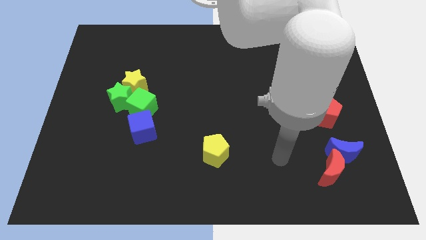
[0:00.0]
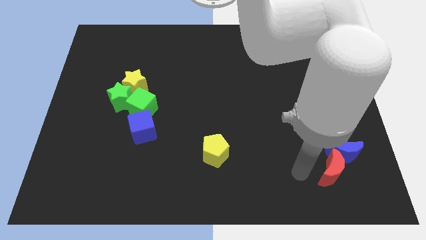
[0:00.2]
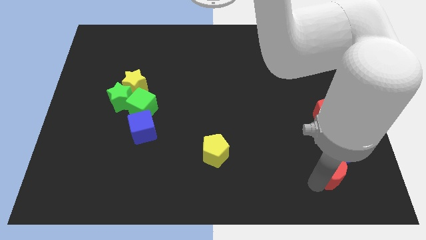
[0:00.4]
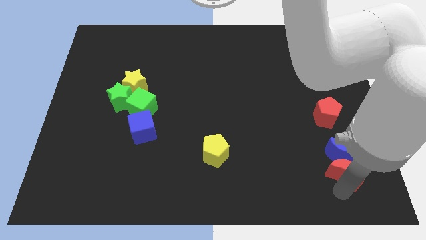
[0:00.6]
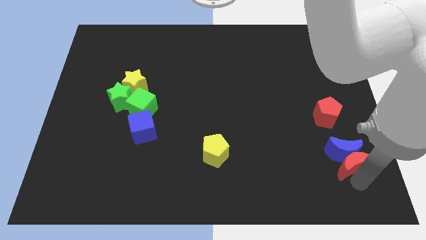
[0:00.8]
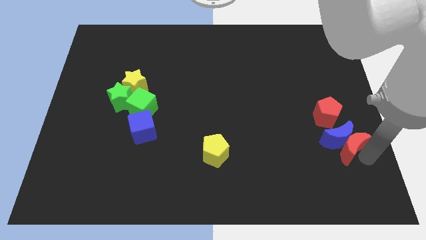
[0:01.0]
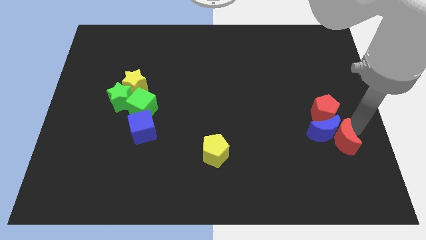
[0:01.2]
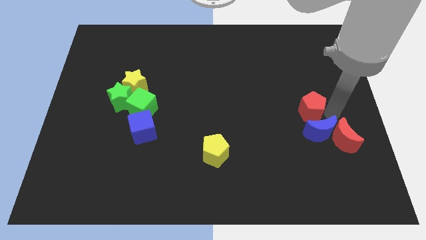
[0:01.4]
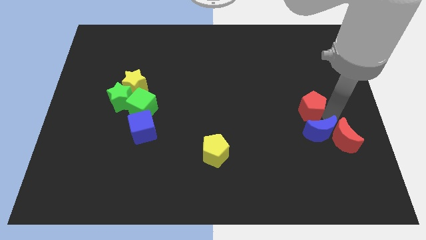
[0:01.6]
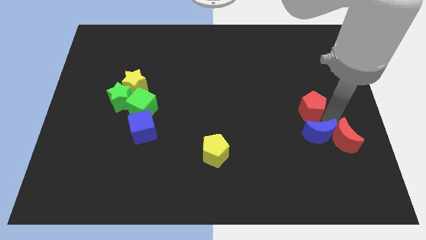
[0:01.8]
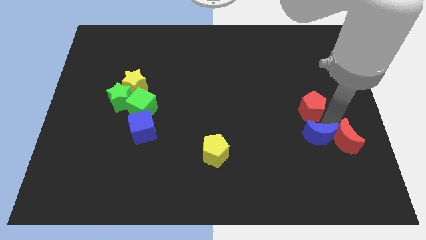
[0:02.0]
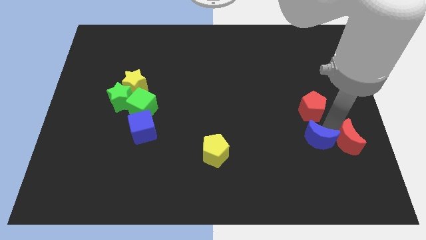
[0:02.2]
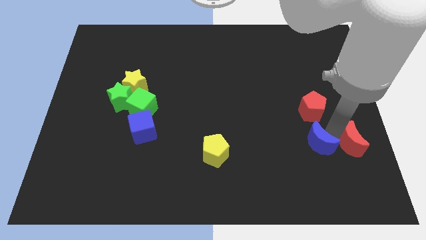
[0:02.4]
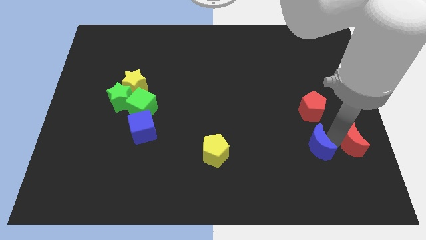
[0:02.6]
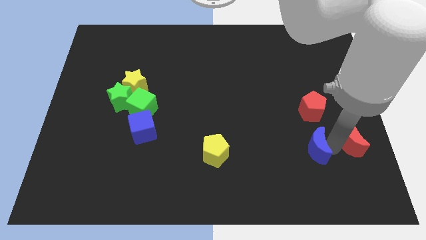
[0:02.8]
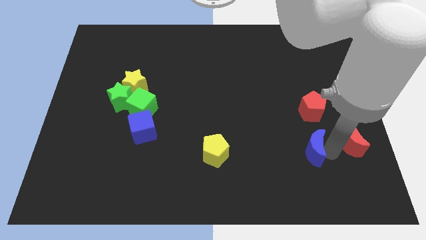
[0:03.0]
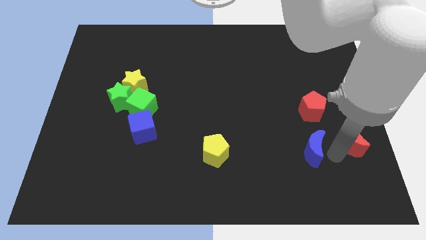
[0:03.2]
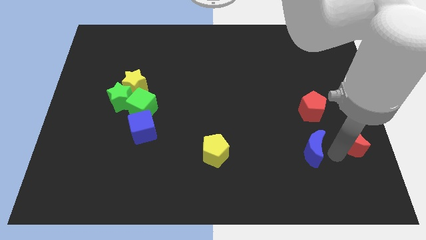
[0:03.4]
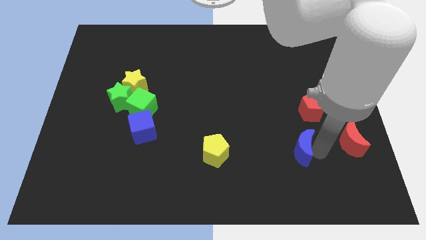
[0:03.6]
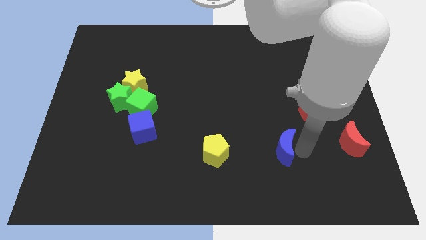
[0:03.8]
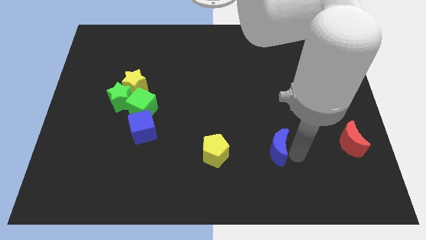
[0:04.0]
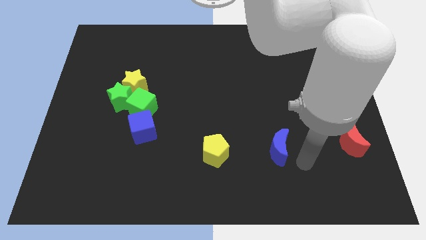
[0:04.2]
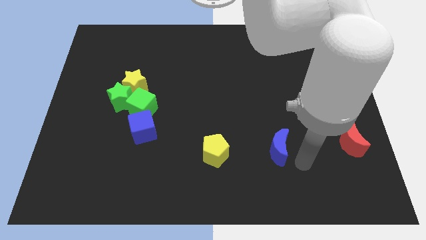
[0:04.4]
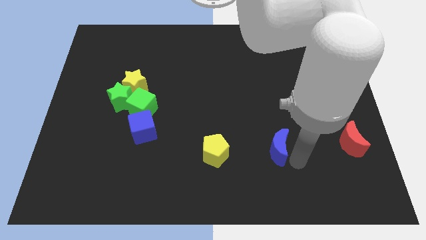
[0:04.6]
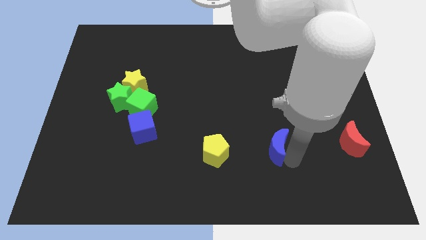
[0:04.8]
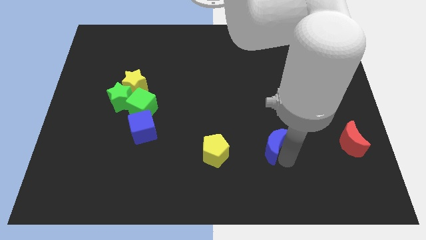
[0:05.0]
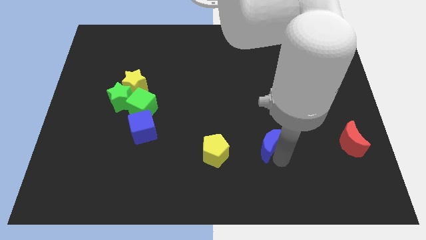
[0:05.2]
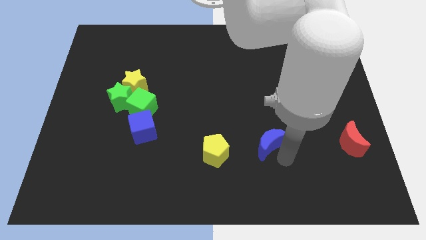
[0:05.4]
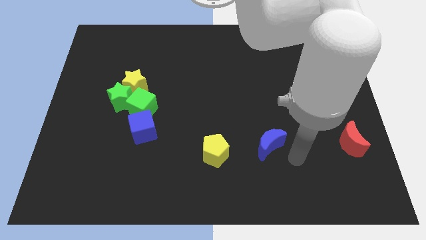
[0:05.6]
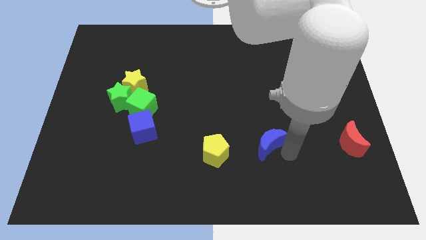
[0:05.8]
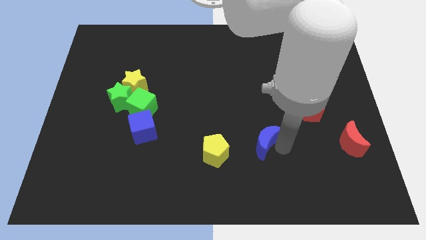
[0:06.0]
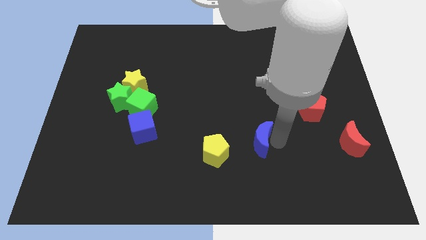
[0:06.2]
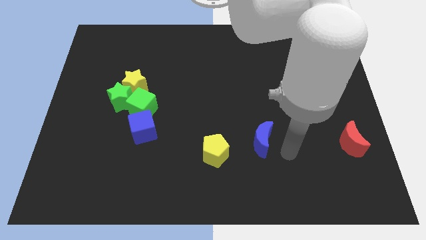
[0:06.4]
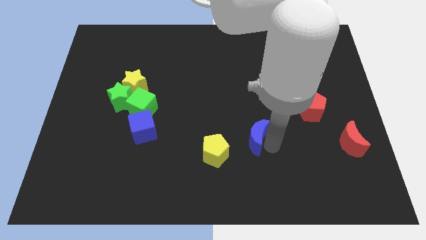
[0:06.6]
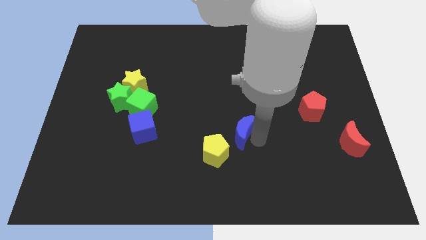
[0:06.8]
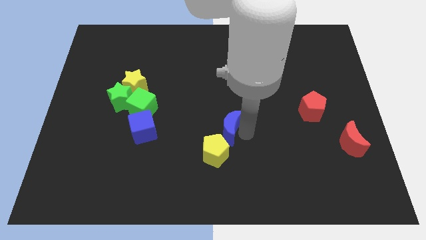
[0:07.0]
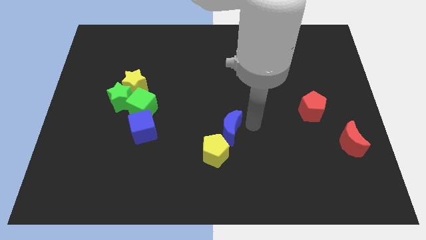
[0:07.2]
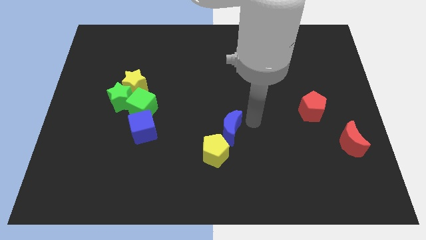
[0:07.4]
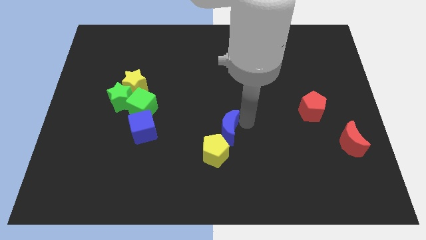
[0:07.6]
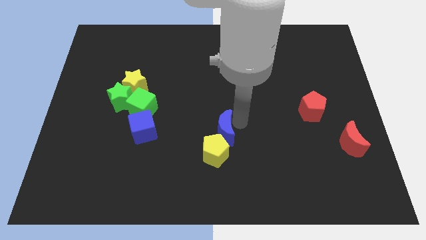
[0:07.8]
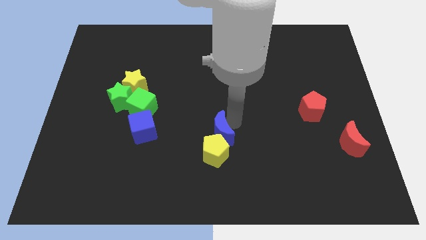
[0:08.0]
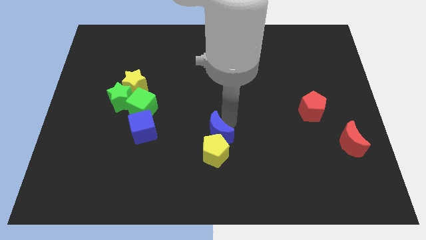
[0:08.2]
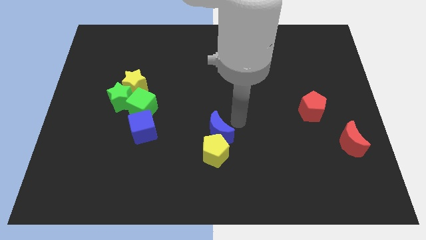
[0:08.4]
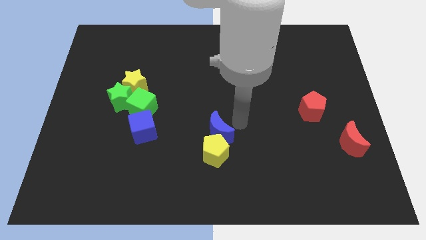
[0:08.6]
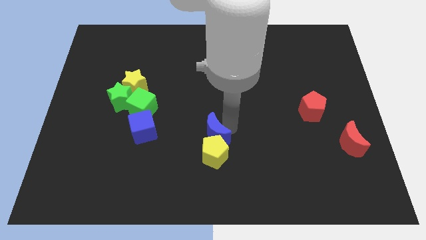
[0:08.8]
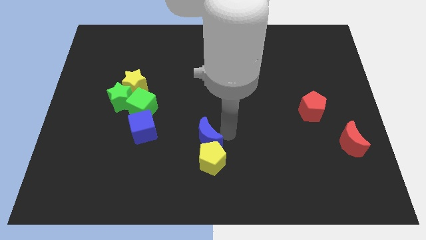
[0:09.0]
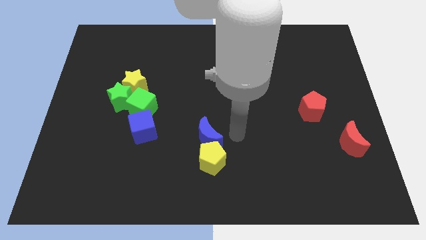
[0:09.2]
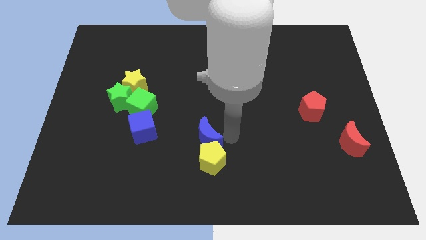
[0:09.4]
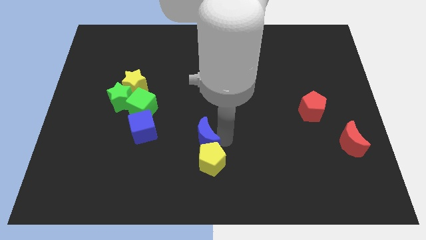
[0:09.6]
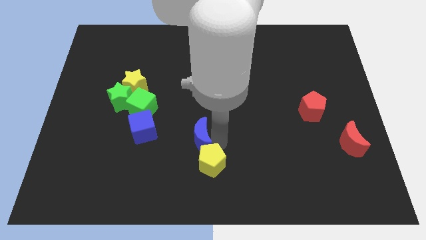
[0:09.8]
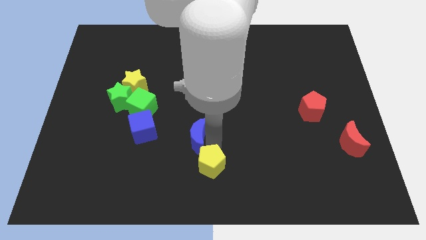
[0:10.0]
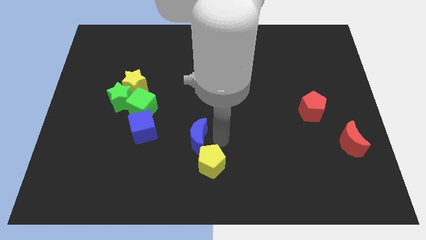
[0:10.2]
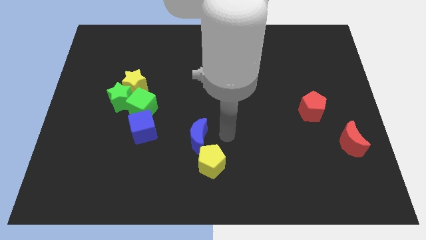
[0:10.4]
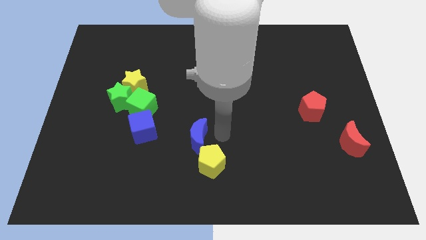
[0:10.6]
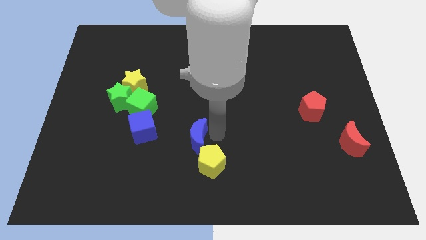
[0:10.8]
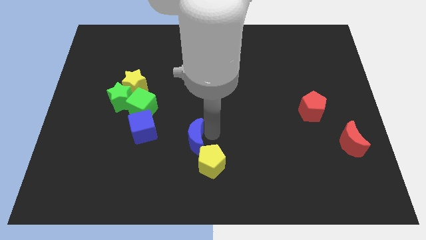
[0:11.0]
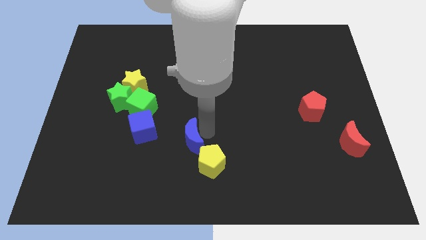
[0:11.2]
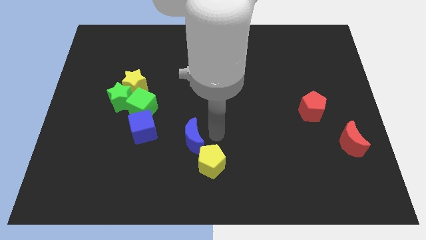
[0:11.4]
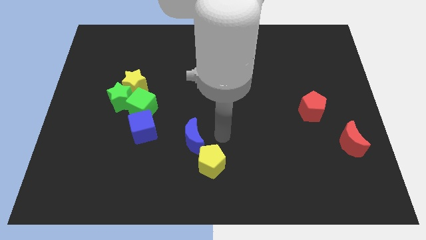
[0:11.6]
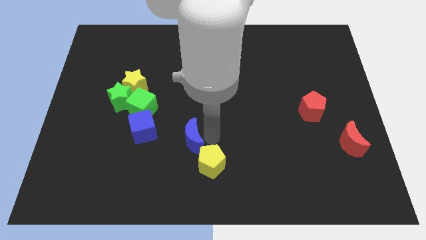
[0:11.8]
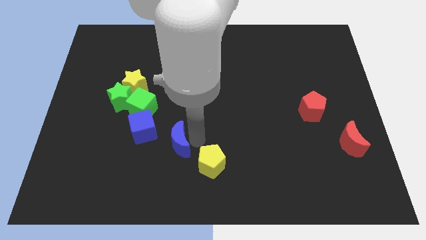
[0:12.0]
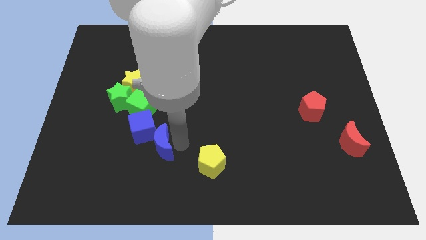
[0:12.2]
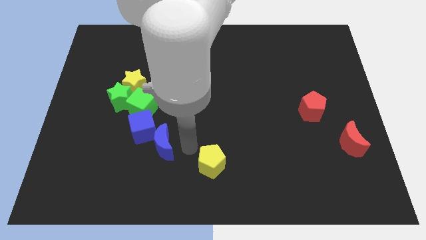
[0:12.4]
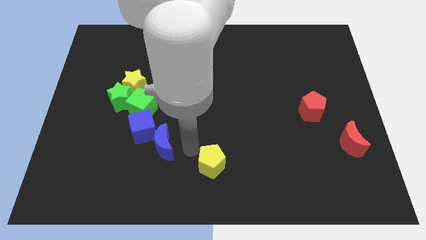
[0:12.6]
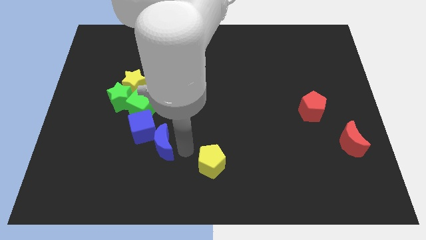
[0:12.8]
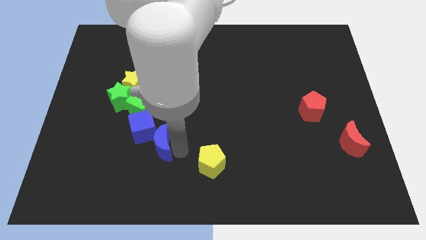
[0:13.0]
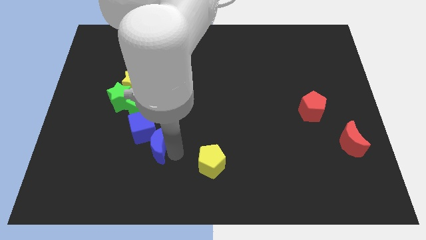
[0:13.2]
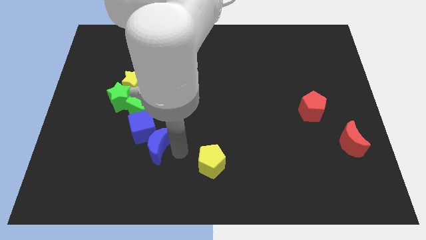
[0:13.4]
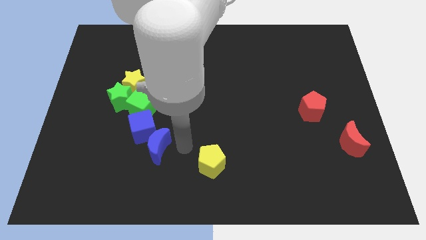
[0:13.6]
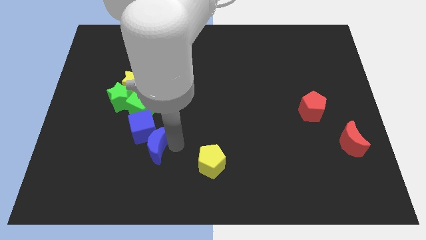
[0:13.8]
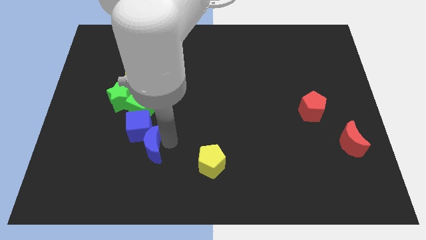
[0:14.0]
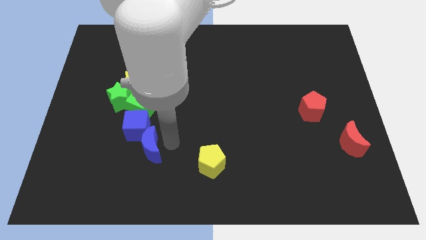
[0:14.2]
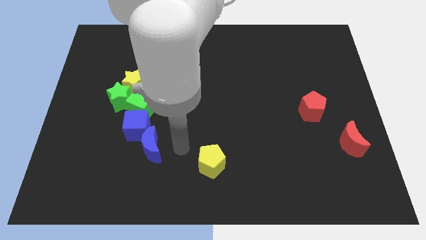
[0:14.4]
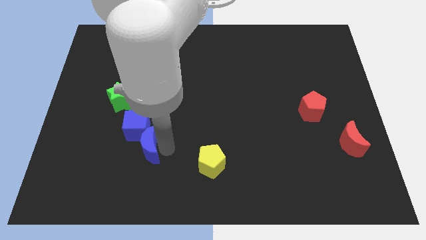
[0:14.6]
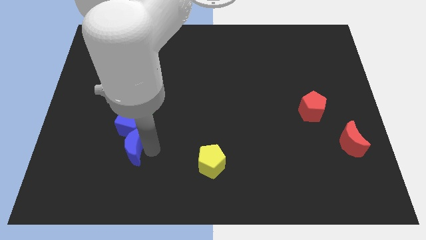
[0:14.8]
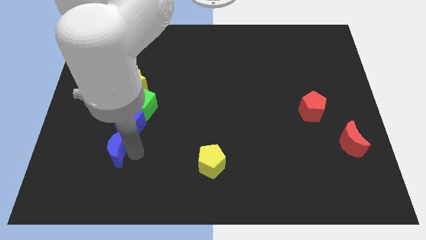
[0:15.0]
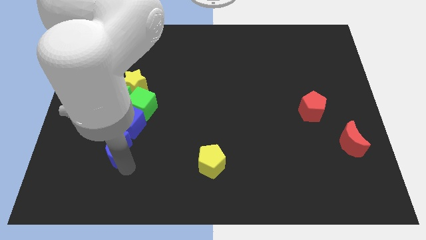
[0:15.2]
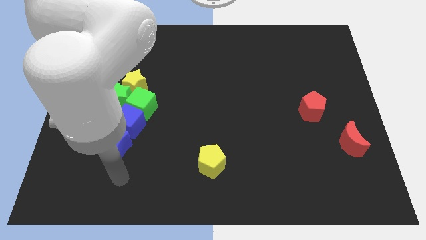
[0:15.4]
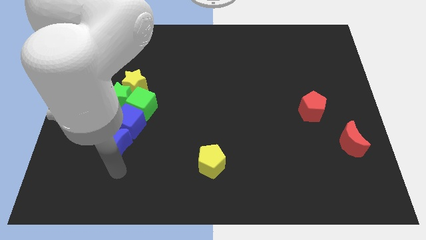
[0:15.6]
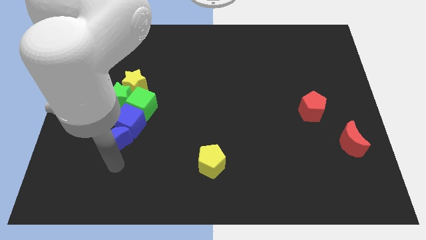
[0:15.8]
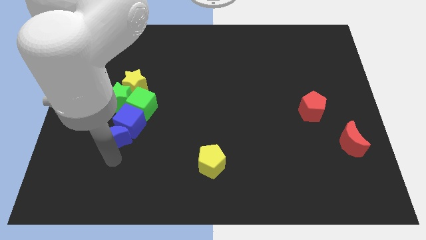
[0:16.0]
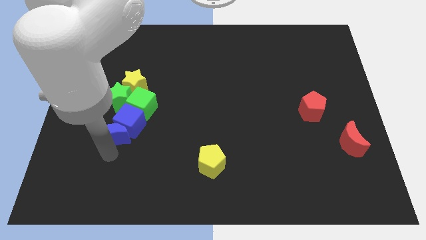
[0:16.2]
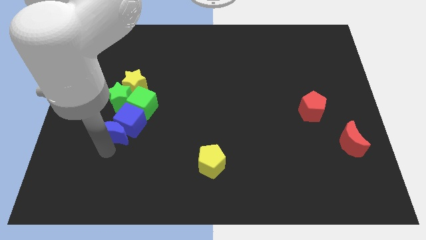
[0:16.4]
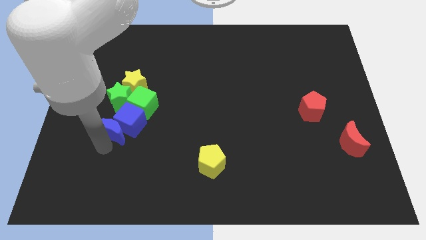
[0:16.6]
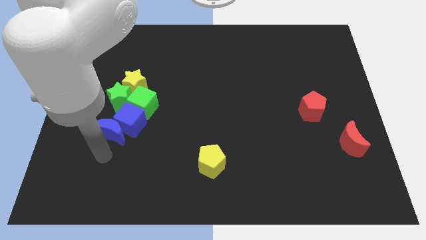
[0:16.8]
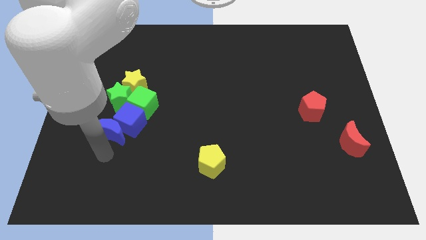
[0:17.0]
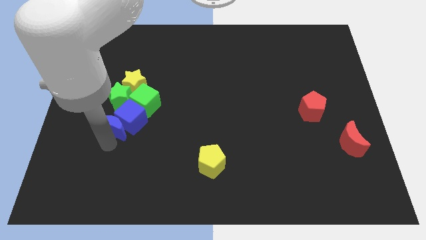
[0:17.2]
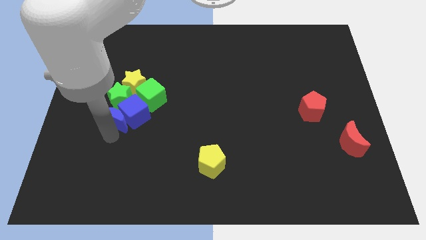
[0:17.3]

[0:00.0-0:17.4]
push the blue moon to the green star
